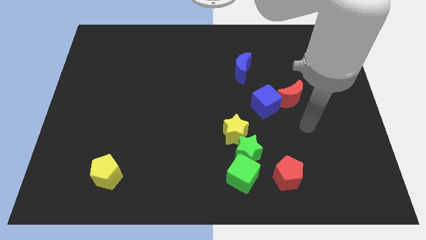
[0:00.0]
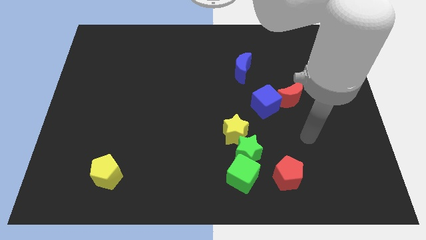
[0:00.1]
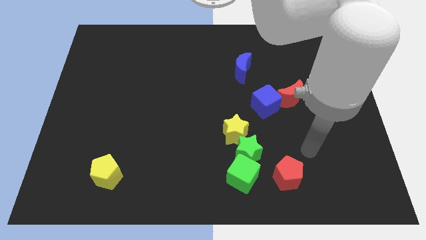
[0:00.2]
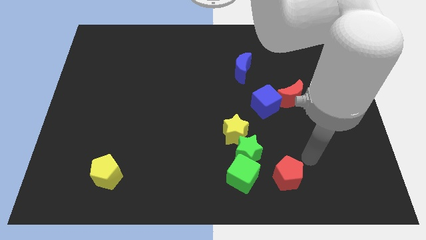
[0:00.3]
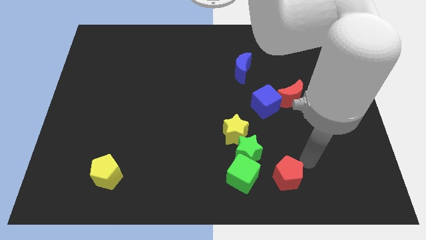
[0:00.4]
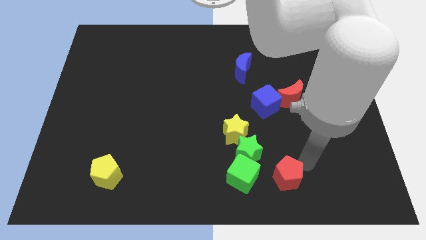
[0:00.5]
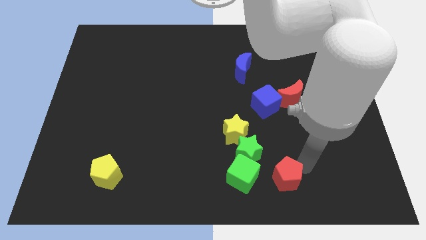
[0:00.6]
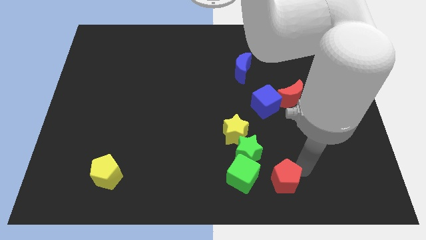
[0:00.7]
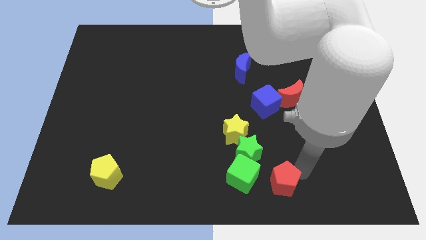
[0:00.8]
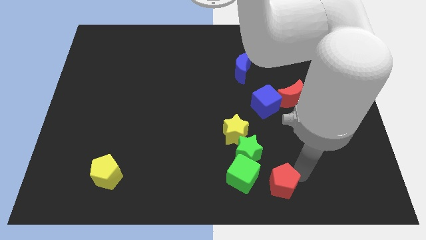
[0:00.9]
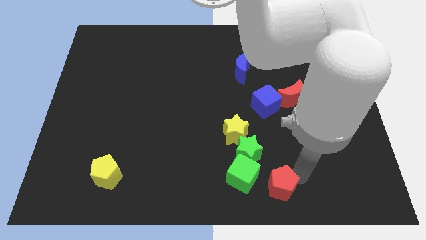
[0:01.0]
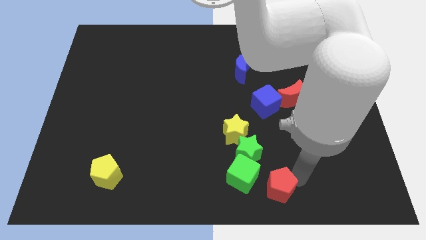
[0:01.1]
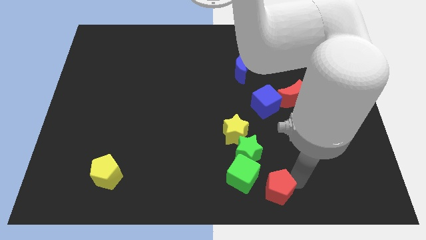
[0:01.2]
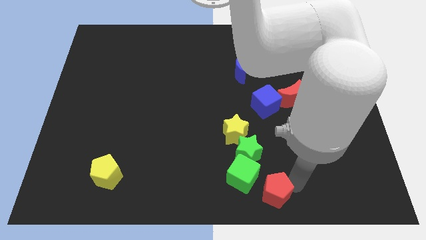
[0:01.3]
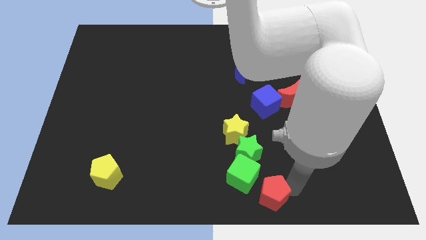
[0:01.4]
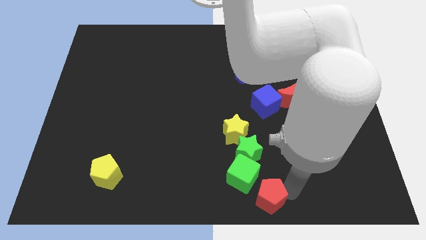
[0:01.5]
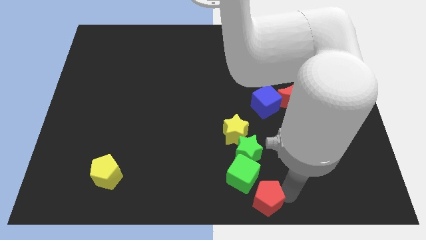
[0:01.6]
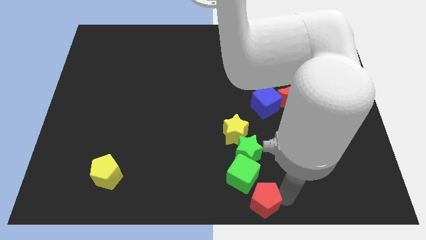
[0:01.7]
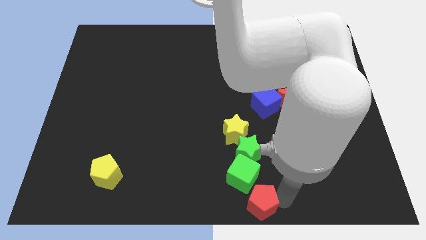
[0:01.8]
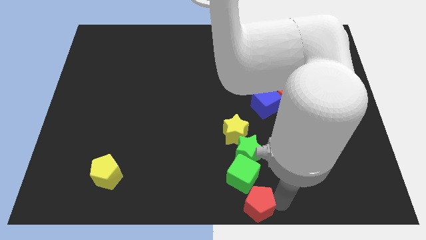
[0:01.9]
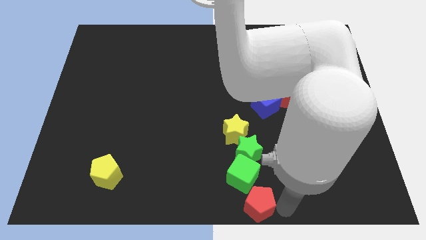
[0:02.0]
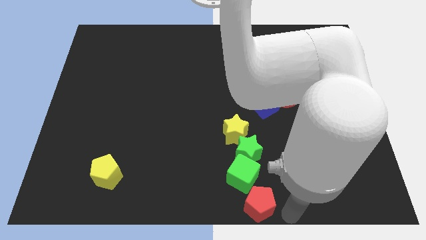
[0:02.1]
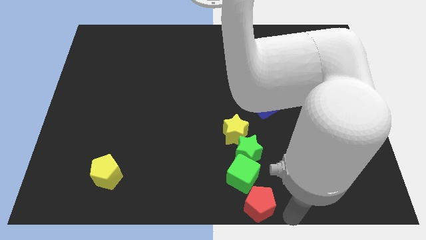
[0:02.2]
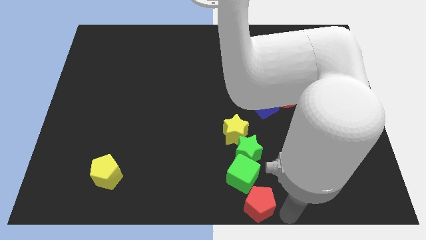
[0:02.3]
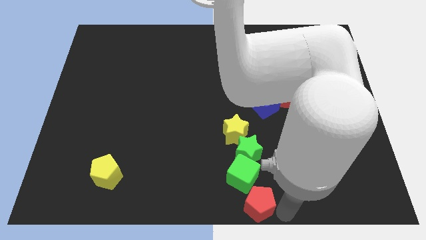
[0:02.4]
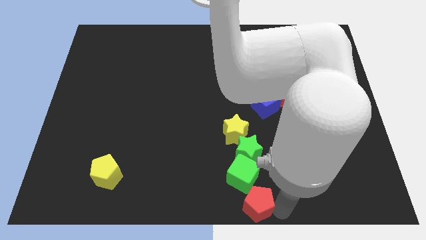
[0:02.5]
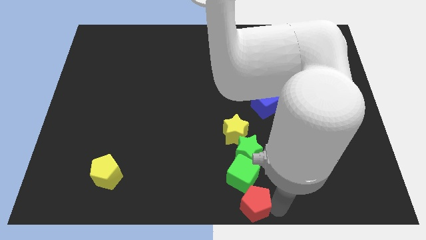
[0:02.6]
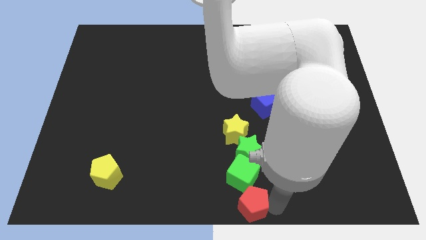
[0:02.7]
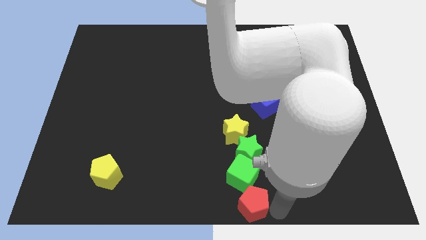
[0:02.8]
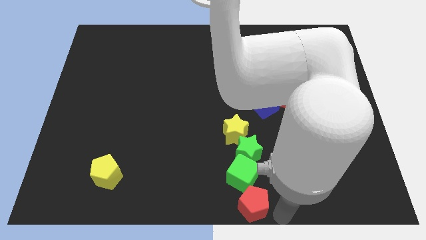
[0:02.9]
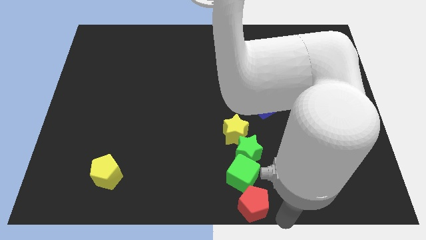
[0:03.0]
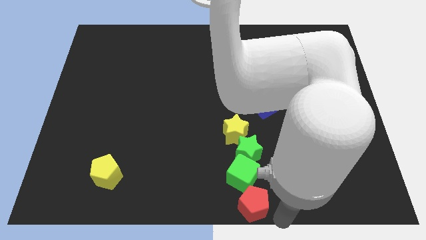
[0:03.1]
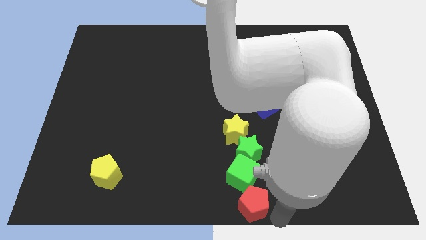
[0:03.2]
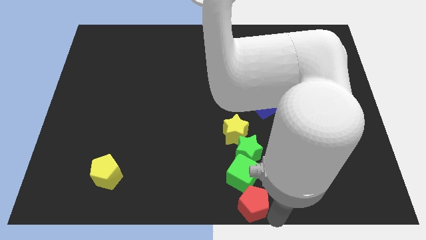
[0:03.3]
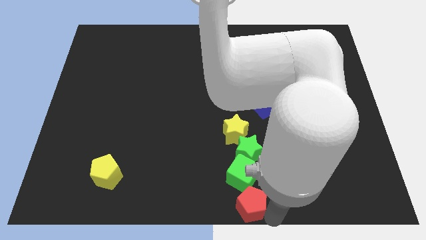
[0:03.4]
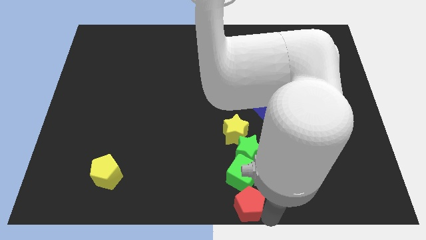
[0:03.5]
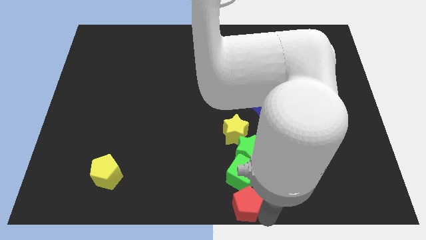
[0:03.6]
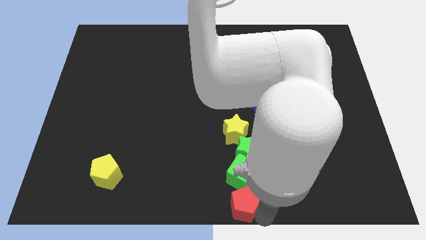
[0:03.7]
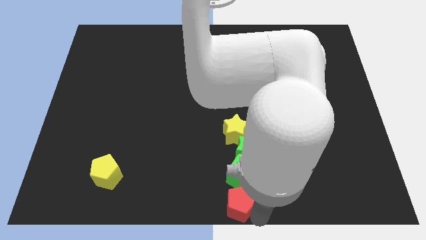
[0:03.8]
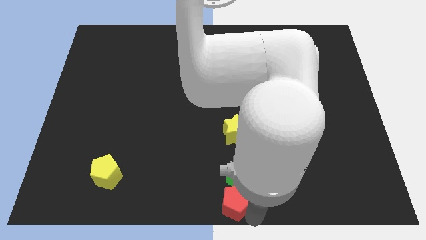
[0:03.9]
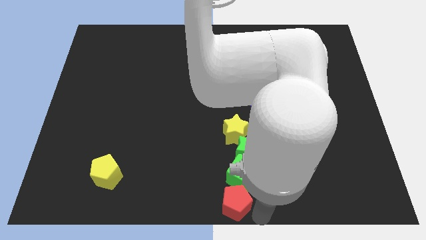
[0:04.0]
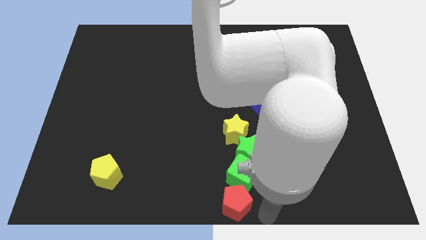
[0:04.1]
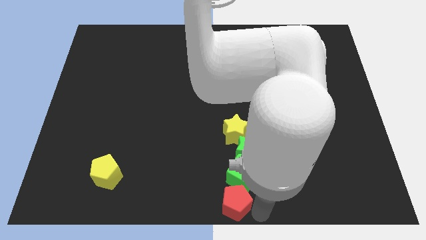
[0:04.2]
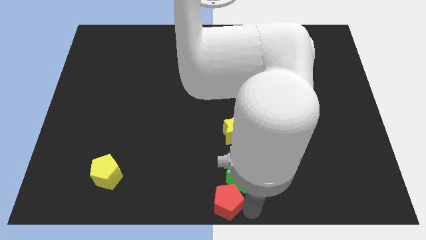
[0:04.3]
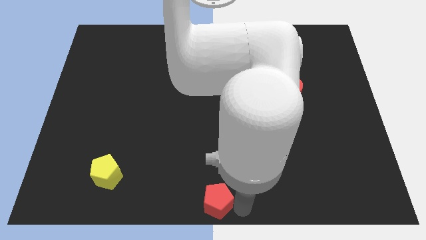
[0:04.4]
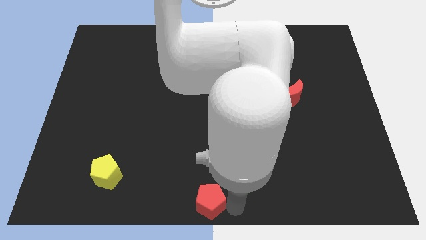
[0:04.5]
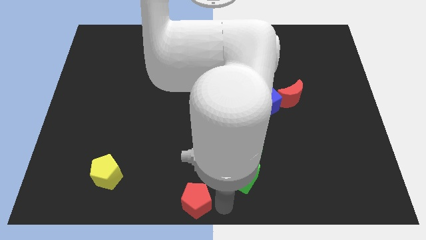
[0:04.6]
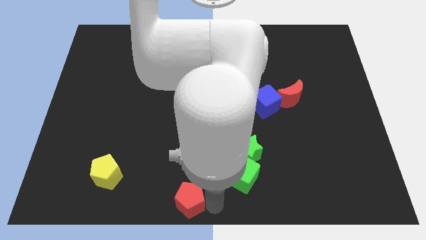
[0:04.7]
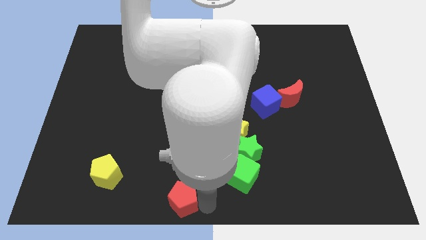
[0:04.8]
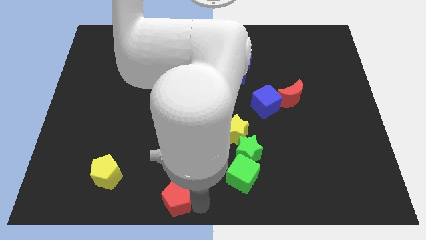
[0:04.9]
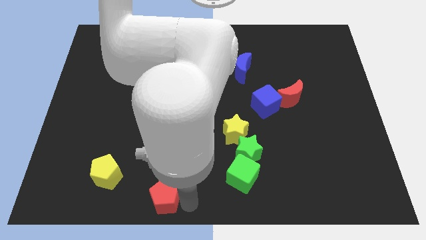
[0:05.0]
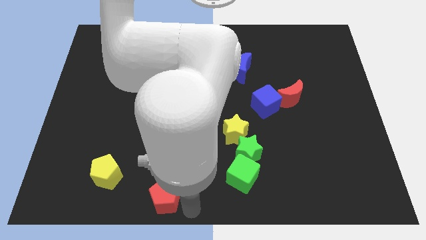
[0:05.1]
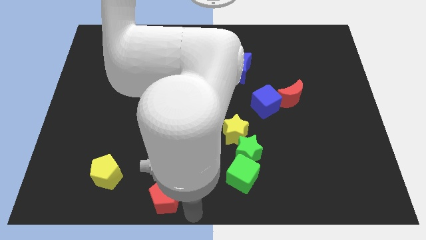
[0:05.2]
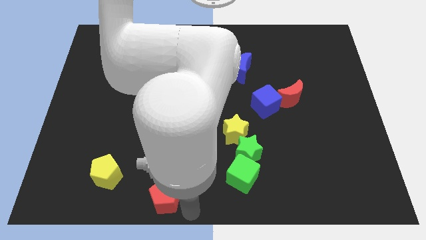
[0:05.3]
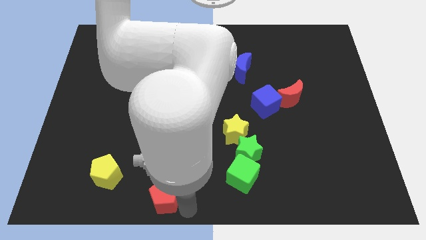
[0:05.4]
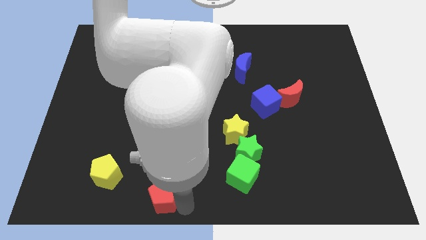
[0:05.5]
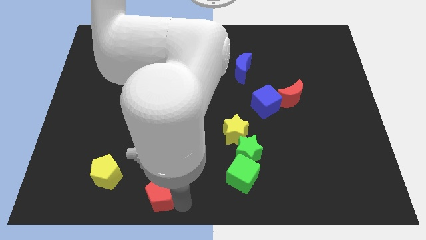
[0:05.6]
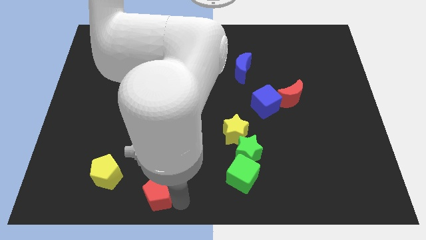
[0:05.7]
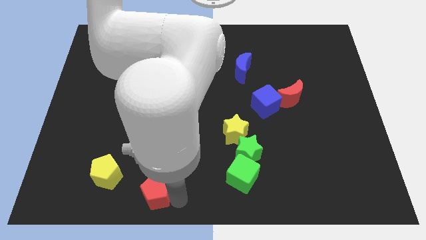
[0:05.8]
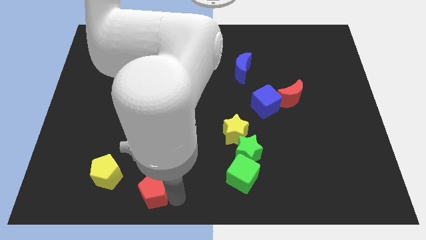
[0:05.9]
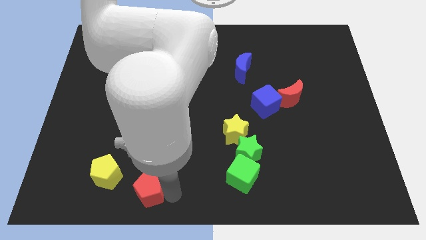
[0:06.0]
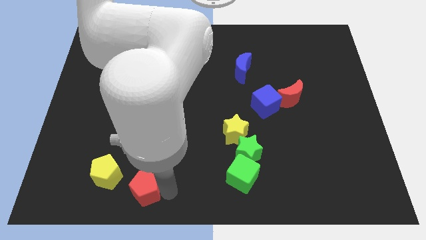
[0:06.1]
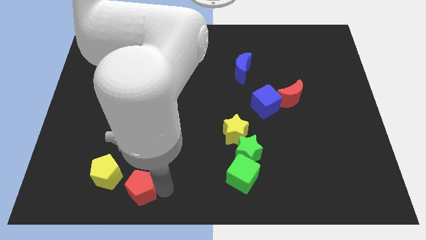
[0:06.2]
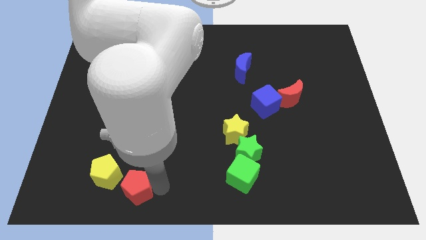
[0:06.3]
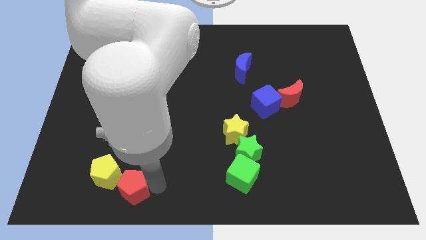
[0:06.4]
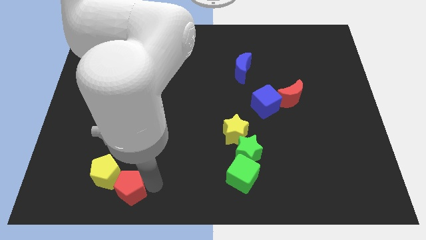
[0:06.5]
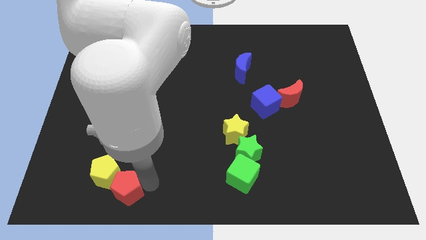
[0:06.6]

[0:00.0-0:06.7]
put the red pentagon to the yellow pentagon

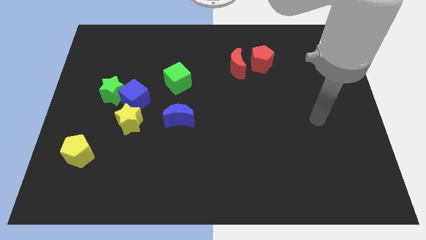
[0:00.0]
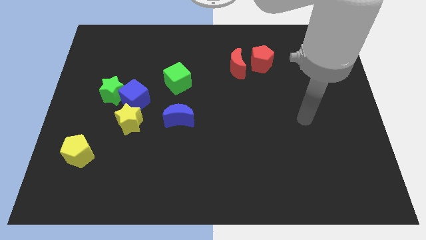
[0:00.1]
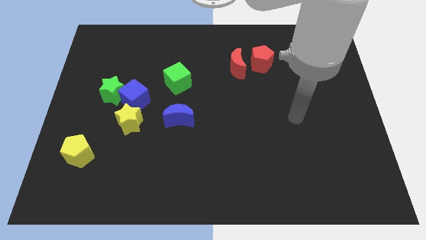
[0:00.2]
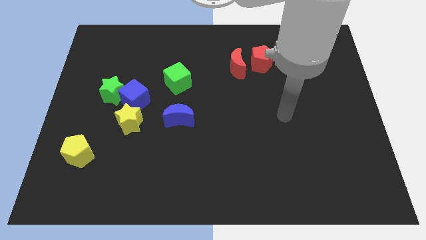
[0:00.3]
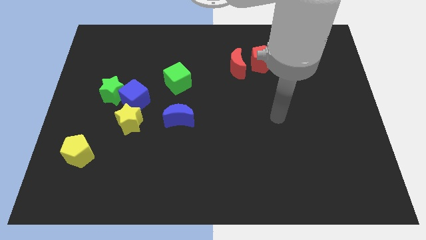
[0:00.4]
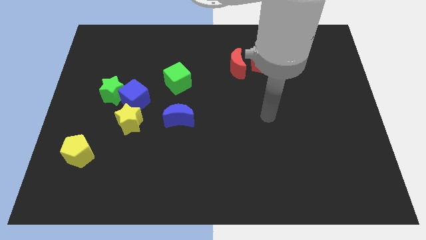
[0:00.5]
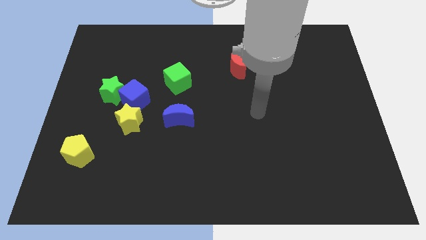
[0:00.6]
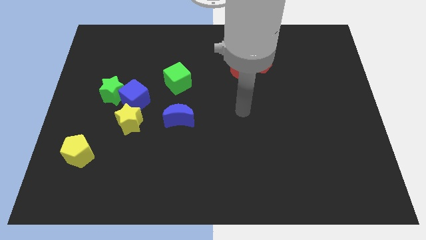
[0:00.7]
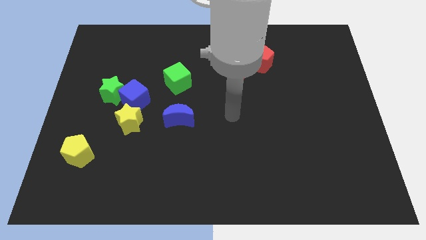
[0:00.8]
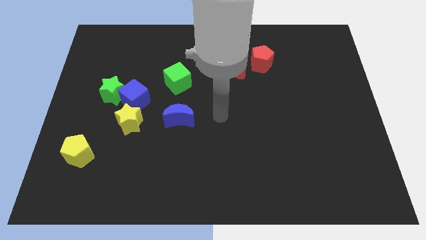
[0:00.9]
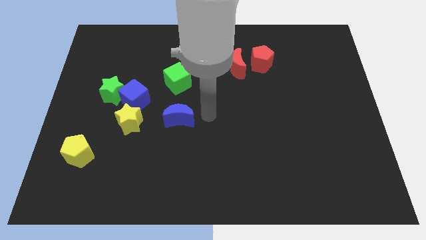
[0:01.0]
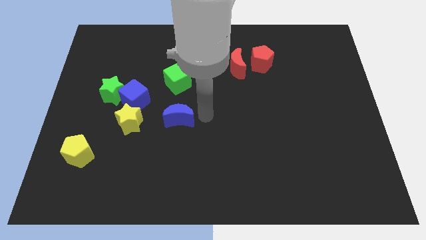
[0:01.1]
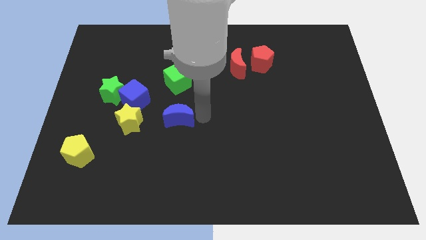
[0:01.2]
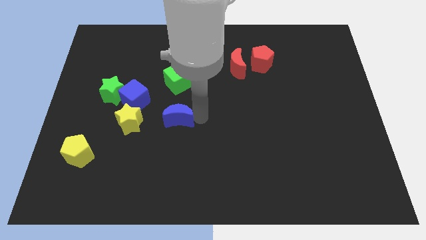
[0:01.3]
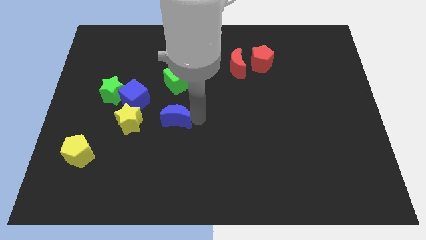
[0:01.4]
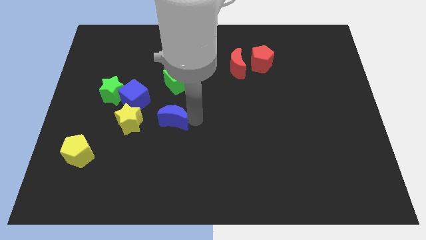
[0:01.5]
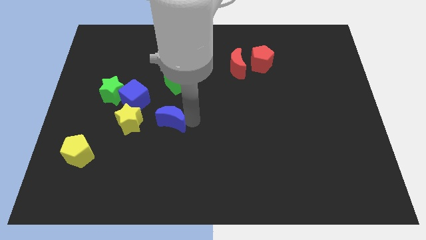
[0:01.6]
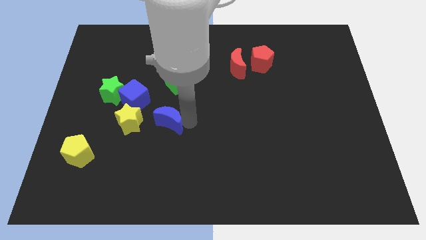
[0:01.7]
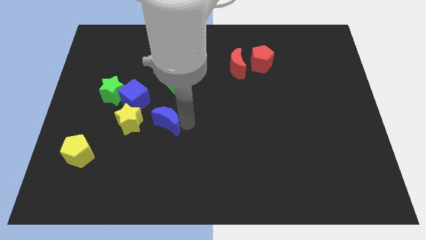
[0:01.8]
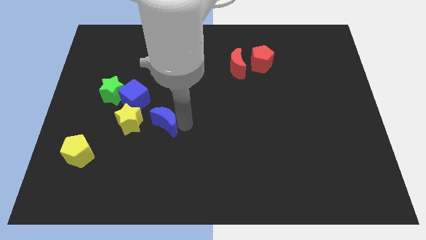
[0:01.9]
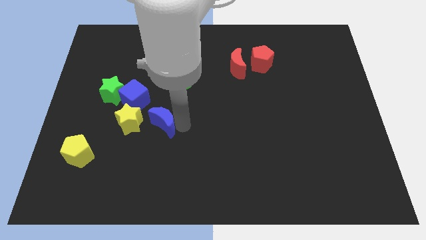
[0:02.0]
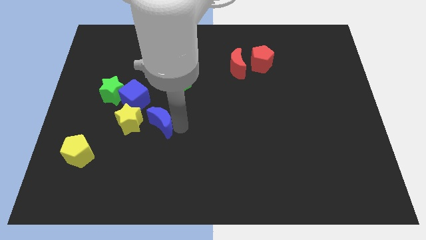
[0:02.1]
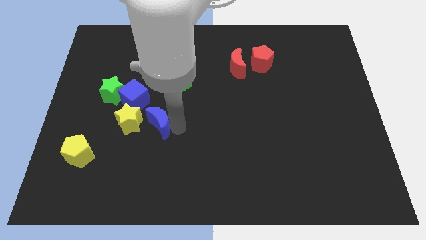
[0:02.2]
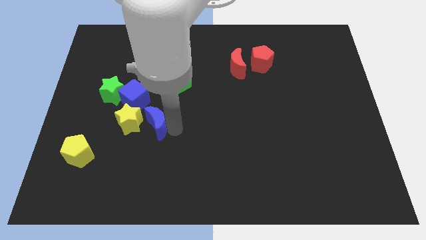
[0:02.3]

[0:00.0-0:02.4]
push the blue moon close to the yellow star
